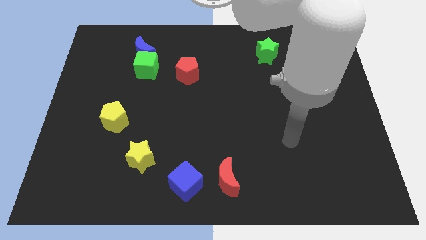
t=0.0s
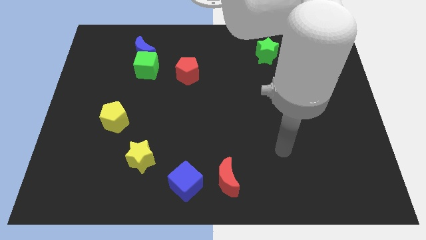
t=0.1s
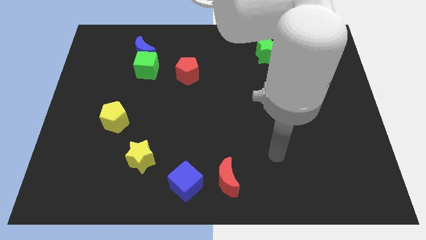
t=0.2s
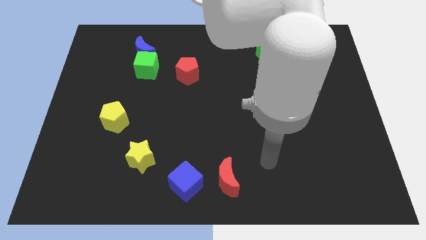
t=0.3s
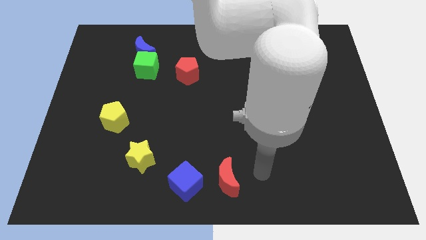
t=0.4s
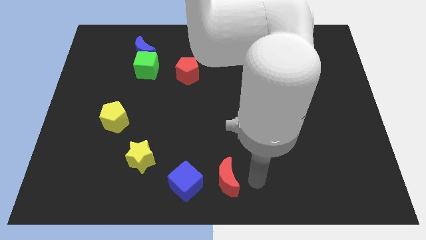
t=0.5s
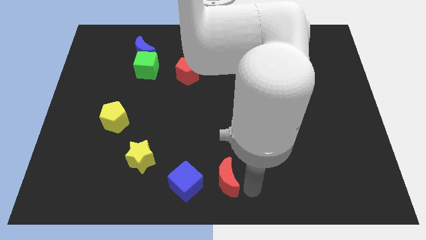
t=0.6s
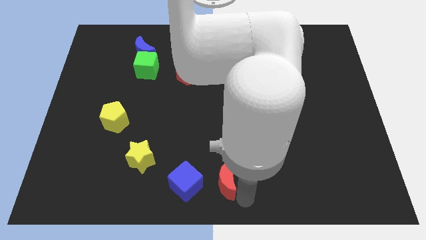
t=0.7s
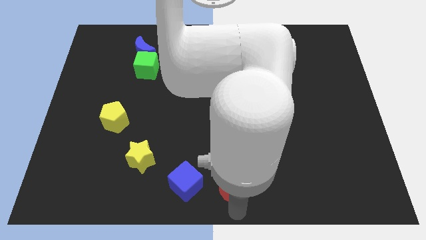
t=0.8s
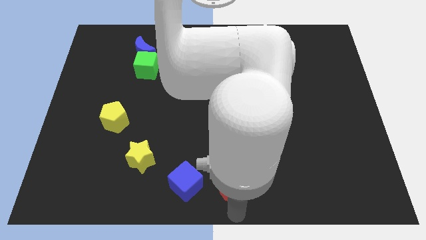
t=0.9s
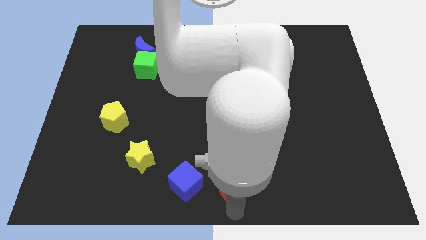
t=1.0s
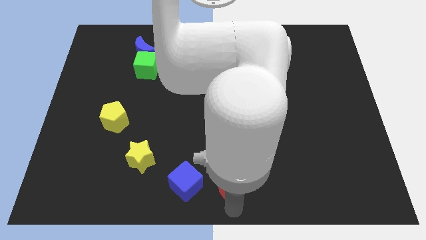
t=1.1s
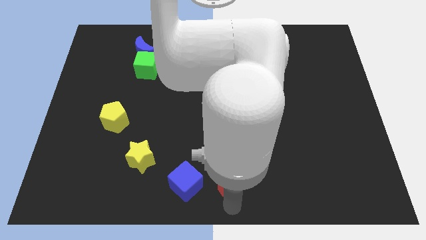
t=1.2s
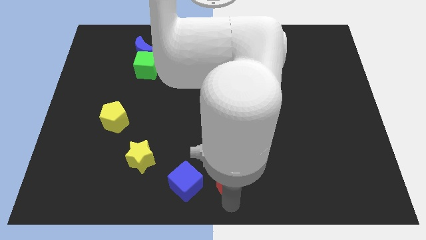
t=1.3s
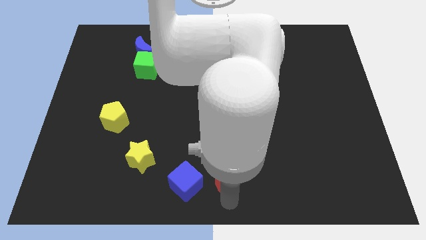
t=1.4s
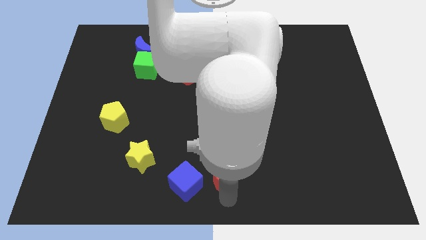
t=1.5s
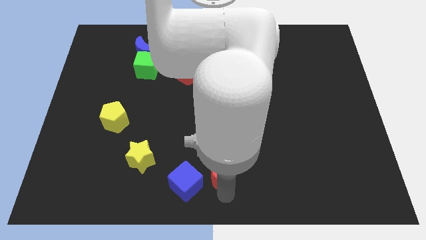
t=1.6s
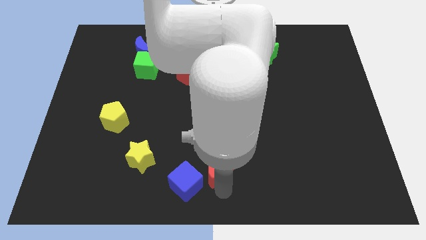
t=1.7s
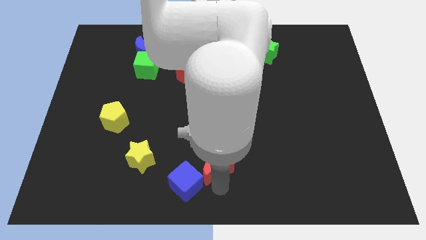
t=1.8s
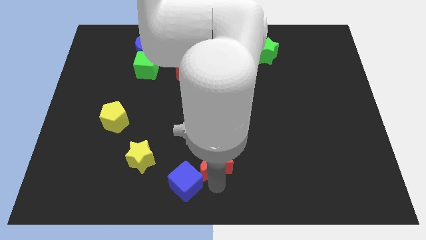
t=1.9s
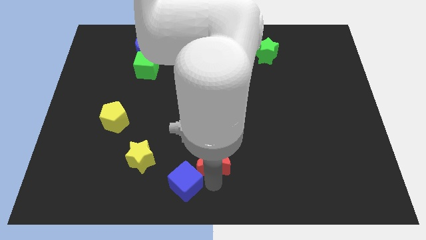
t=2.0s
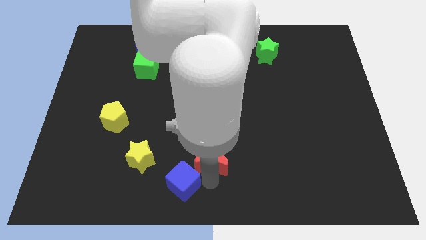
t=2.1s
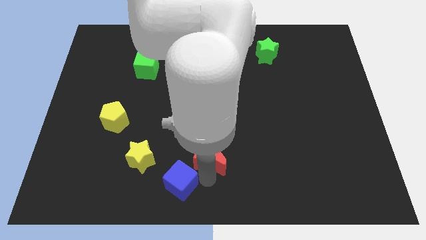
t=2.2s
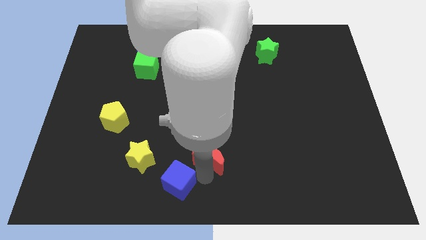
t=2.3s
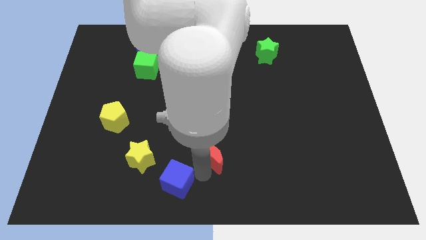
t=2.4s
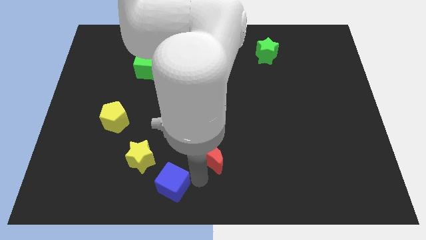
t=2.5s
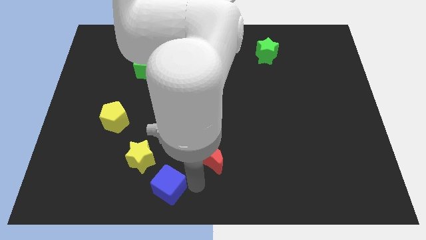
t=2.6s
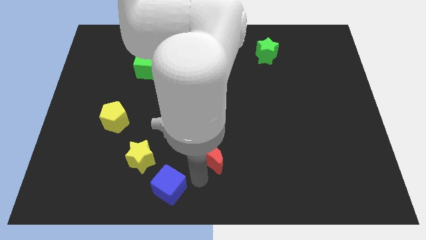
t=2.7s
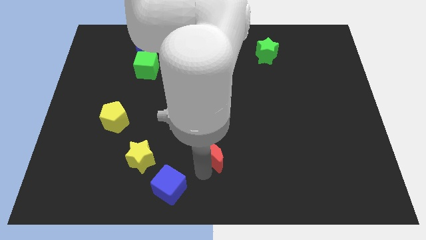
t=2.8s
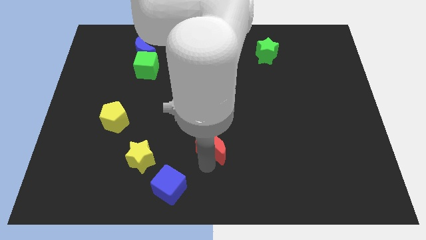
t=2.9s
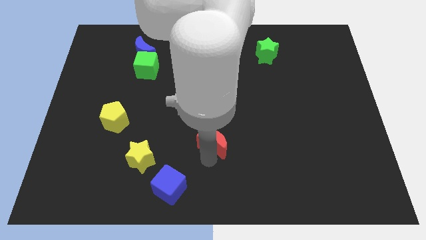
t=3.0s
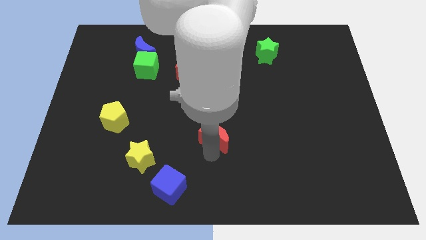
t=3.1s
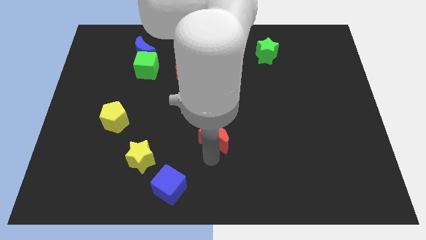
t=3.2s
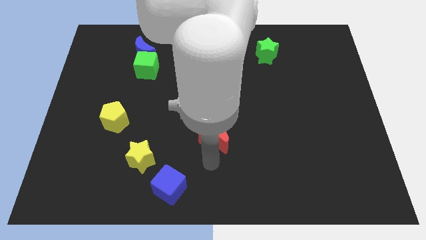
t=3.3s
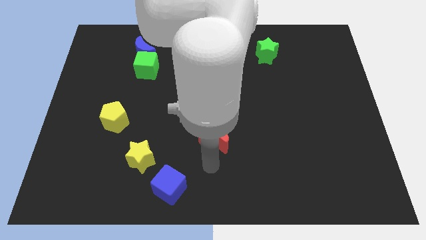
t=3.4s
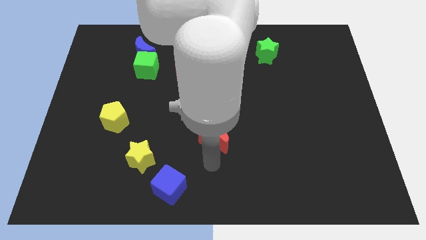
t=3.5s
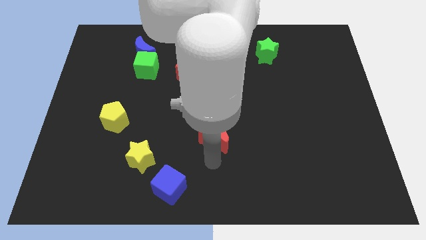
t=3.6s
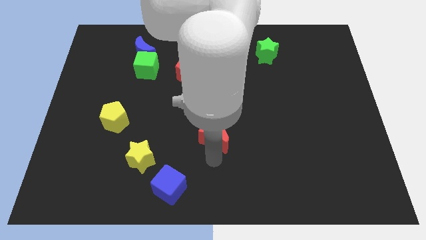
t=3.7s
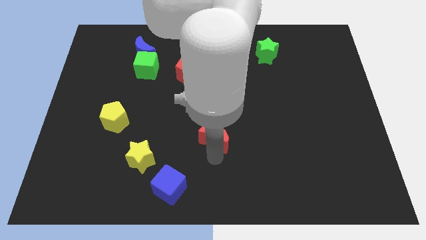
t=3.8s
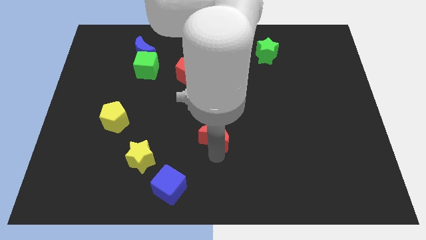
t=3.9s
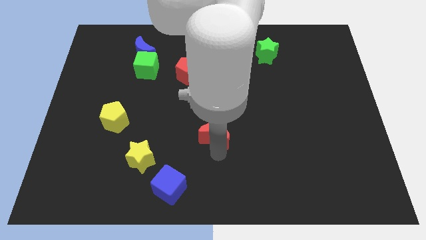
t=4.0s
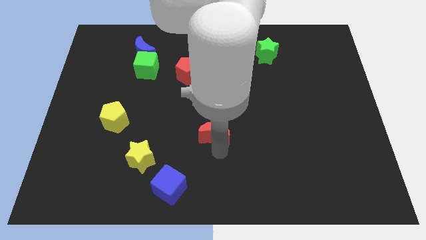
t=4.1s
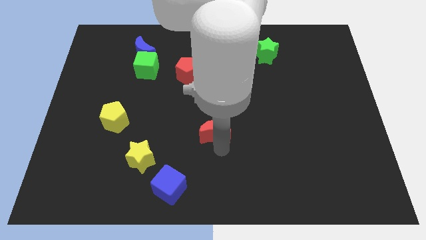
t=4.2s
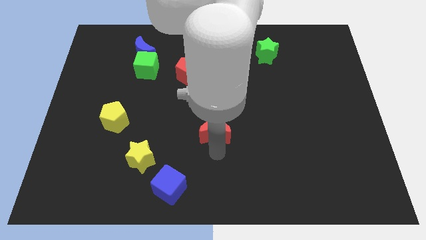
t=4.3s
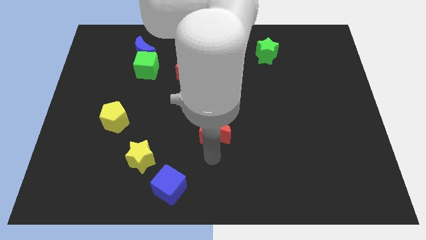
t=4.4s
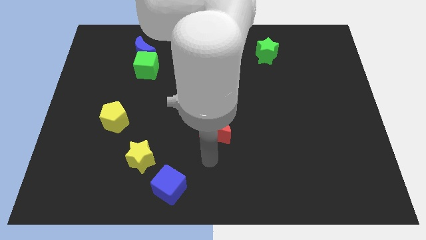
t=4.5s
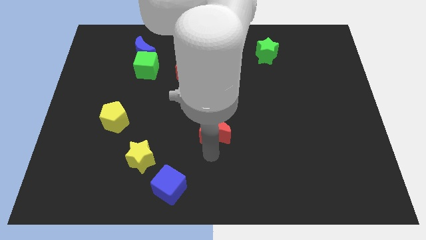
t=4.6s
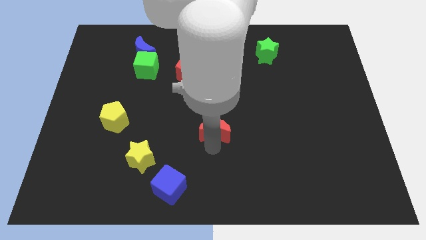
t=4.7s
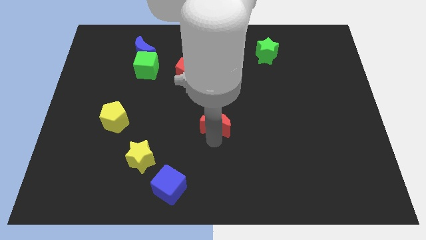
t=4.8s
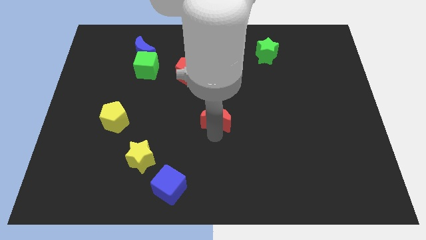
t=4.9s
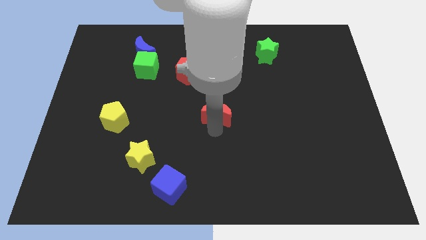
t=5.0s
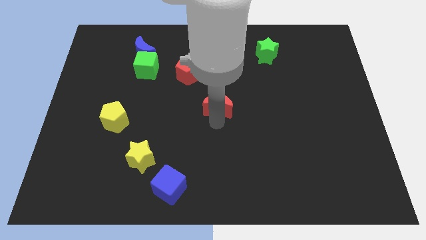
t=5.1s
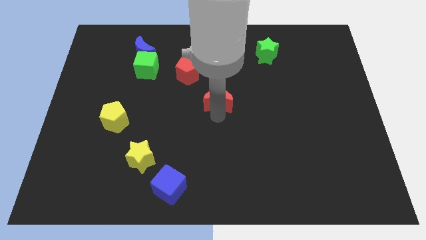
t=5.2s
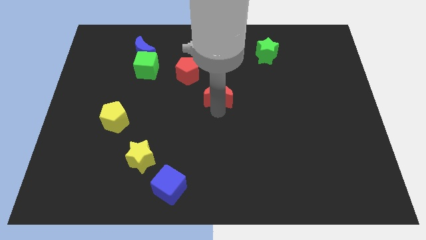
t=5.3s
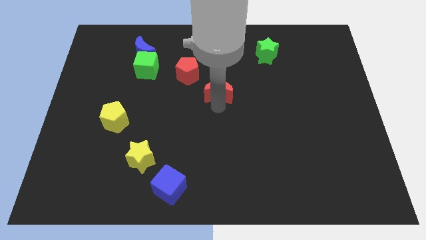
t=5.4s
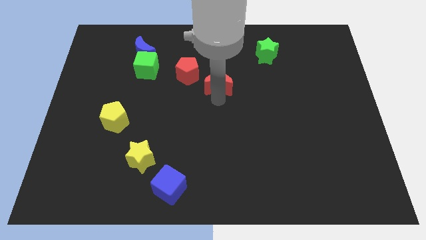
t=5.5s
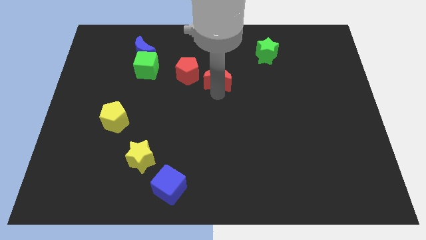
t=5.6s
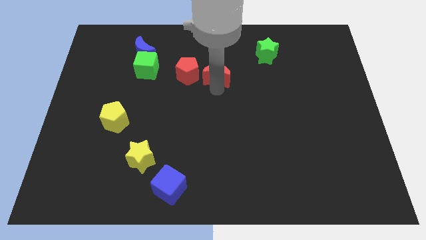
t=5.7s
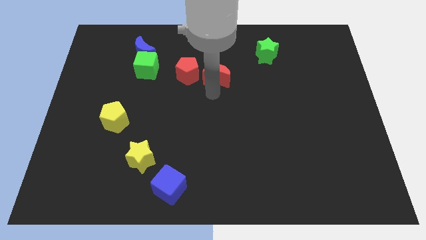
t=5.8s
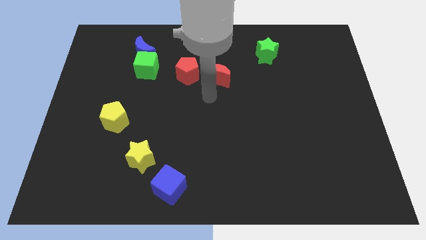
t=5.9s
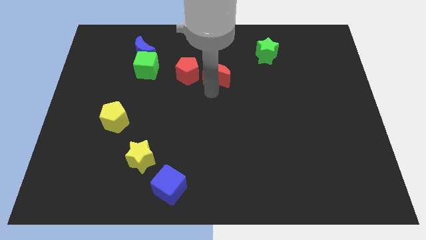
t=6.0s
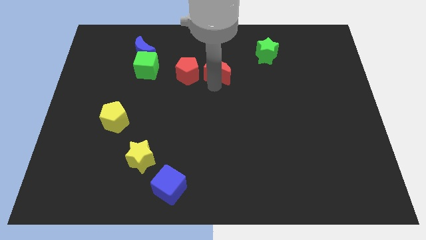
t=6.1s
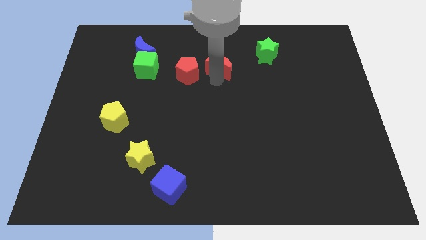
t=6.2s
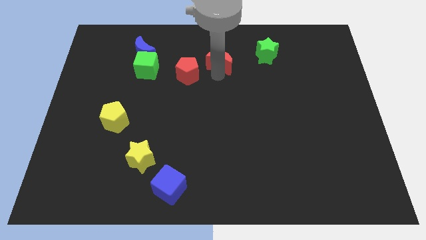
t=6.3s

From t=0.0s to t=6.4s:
put the red moon to the left of the green star

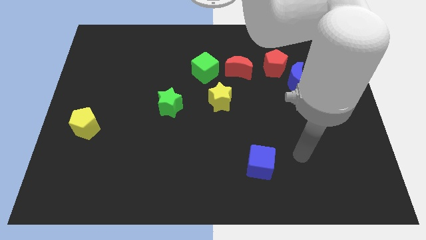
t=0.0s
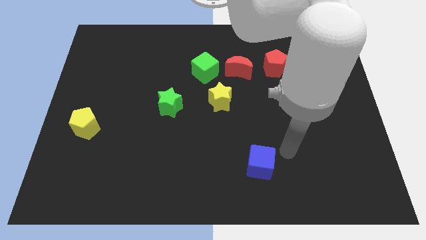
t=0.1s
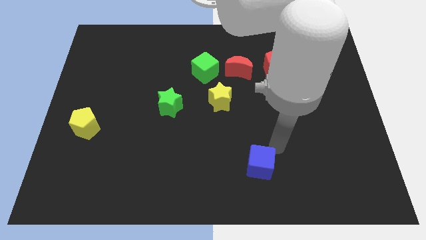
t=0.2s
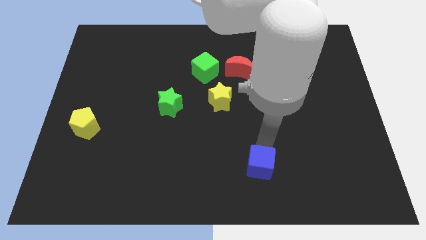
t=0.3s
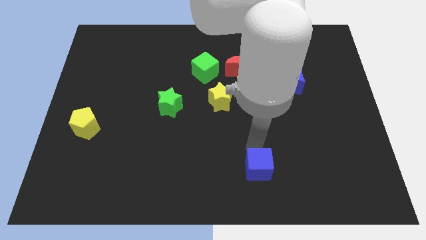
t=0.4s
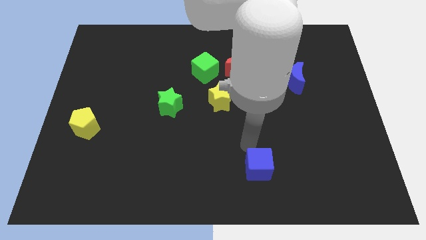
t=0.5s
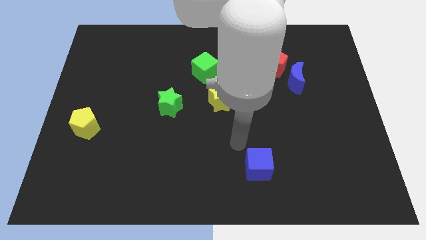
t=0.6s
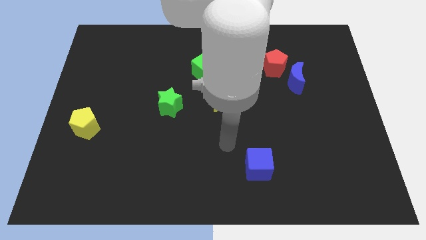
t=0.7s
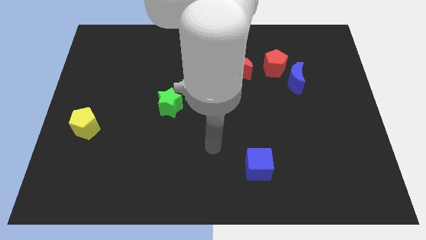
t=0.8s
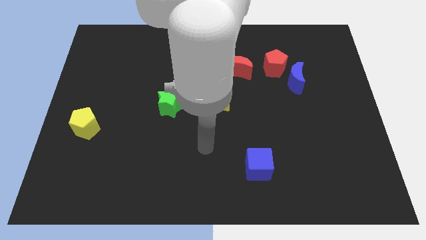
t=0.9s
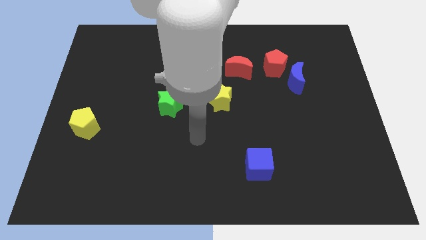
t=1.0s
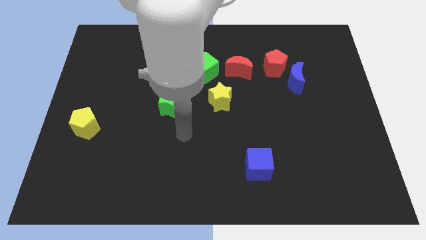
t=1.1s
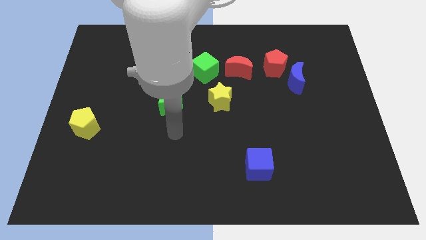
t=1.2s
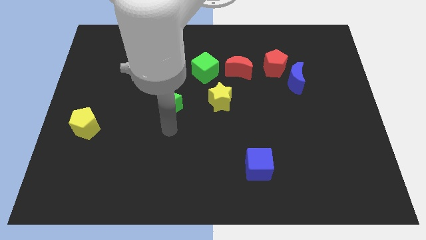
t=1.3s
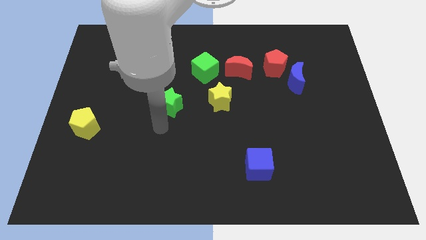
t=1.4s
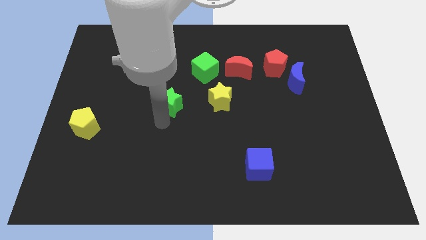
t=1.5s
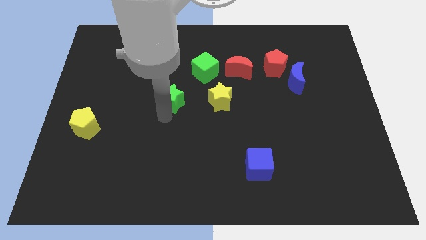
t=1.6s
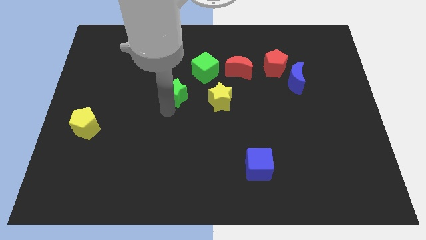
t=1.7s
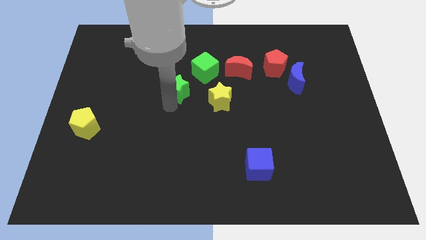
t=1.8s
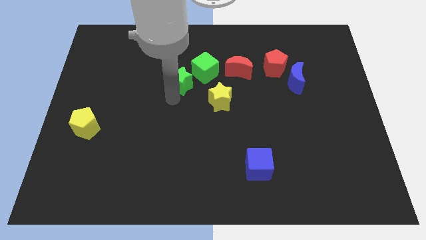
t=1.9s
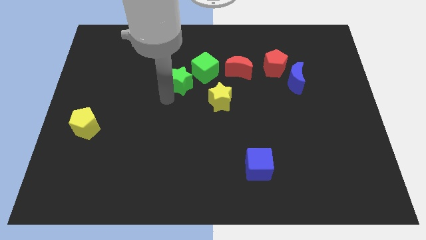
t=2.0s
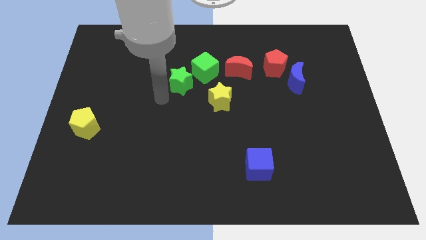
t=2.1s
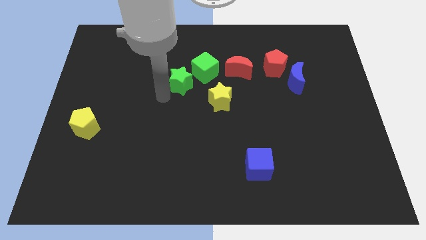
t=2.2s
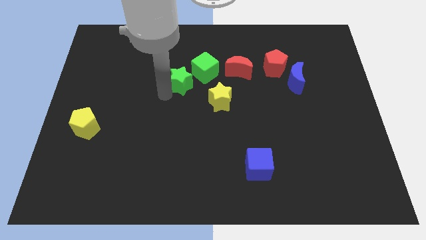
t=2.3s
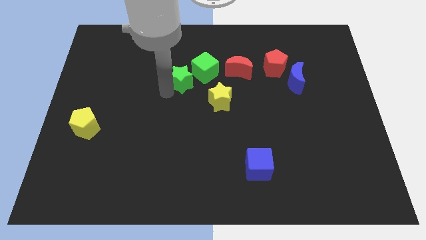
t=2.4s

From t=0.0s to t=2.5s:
slide the green star to the left side of the red moon
